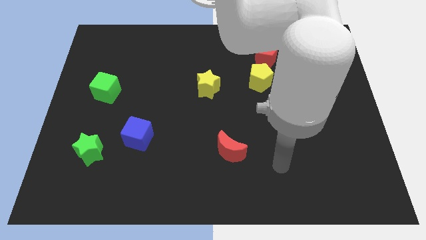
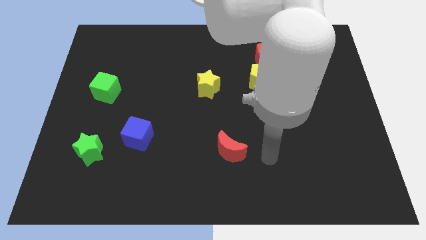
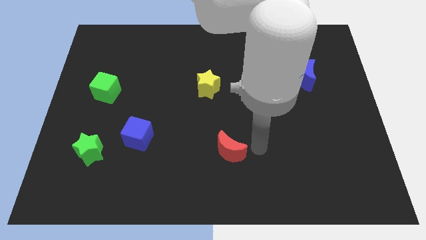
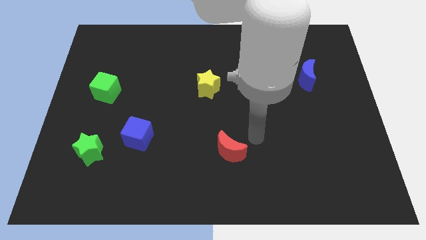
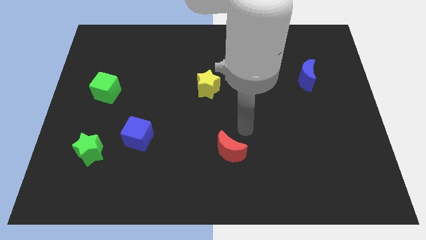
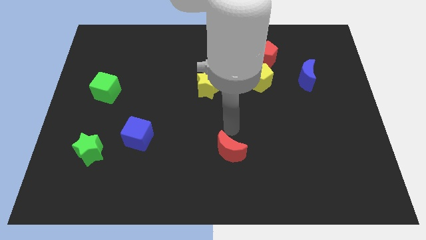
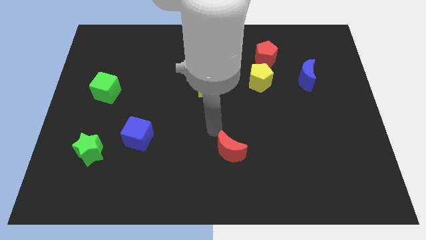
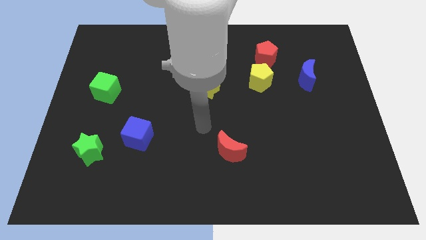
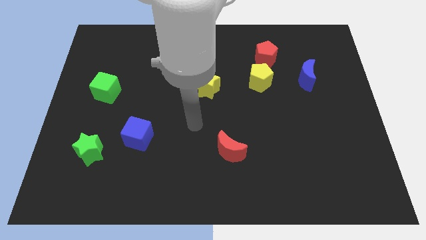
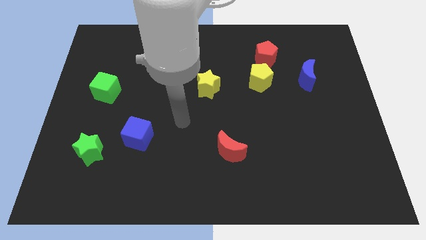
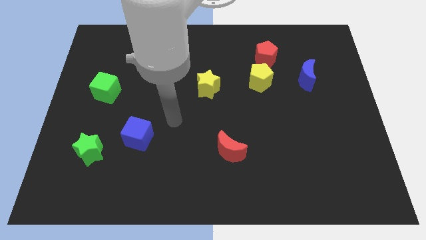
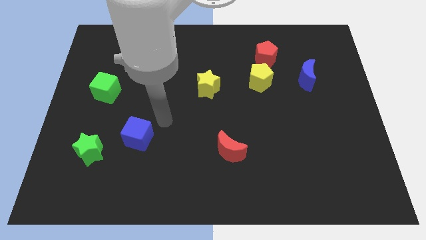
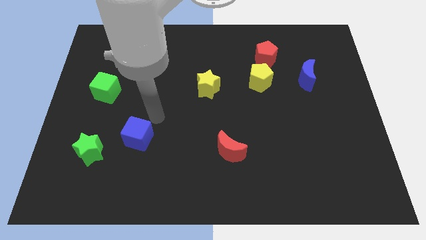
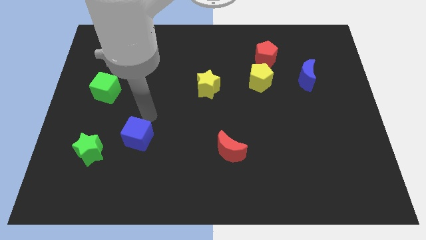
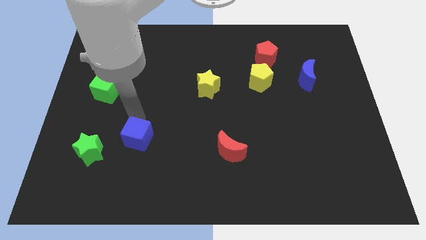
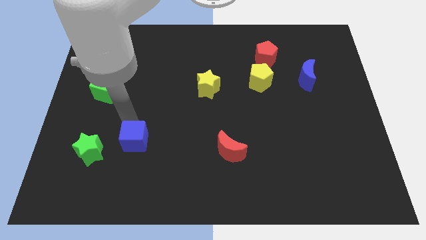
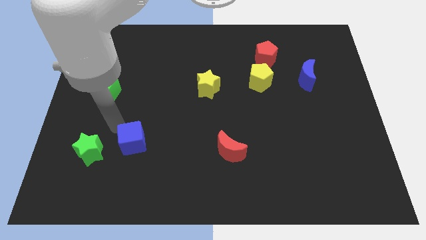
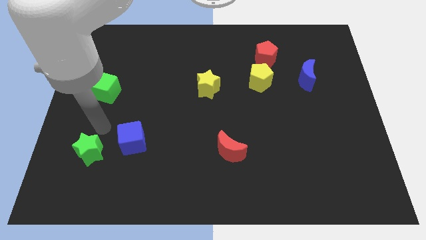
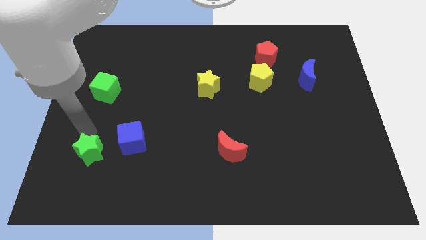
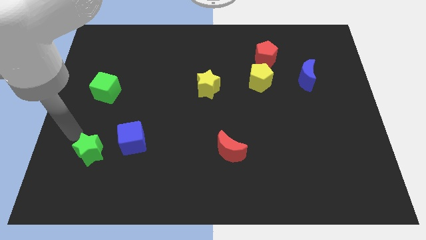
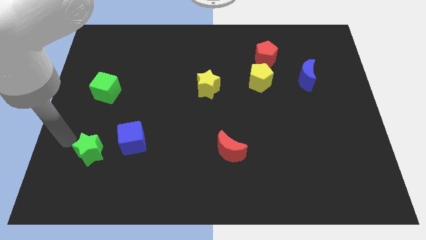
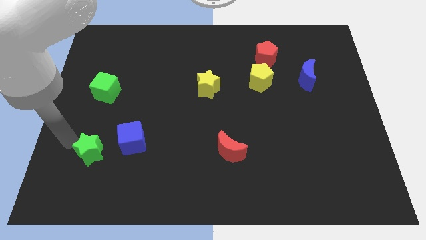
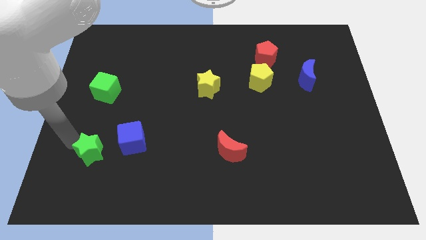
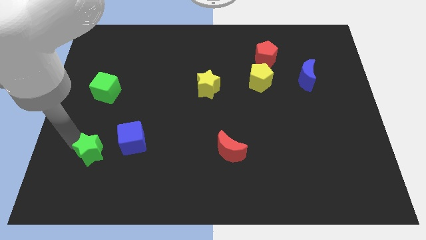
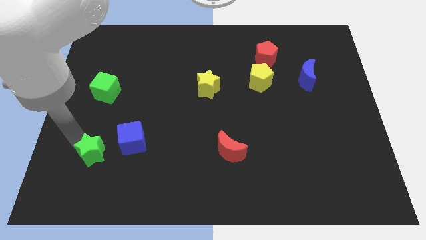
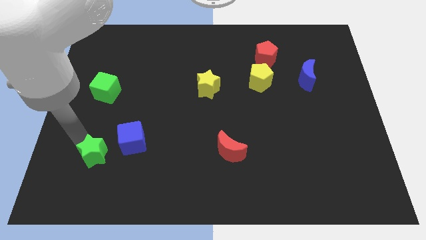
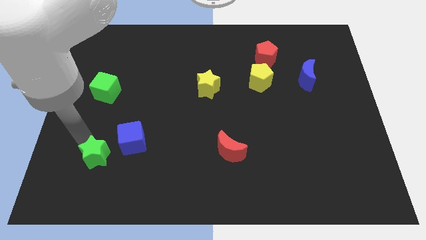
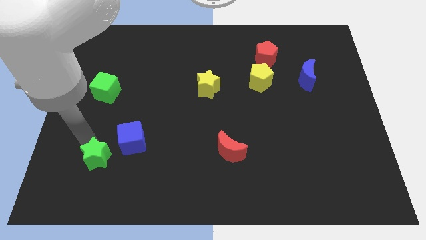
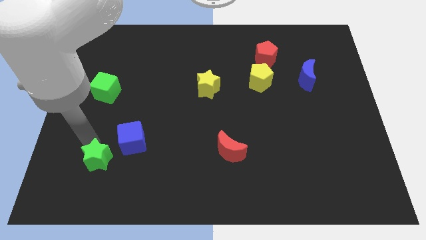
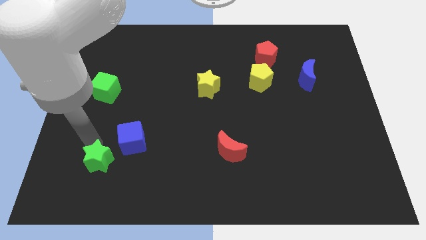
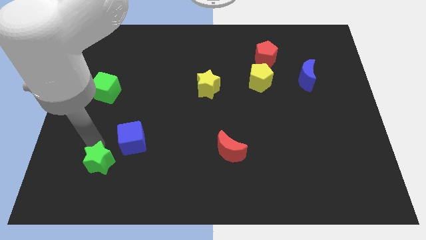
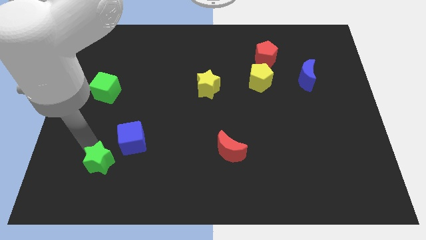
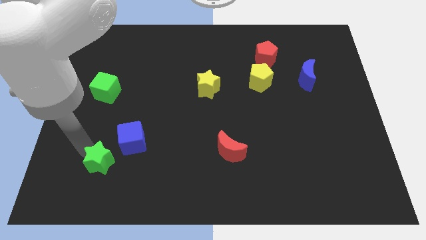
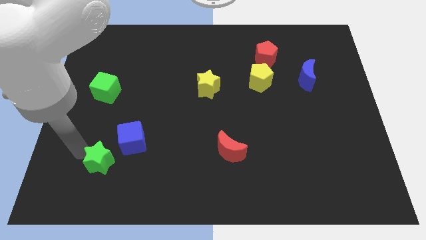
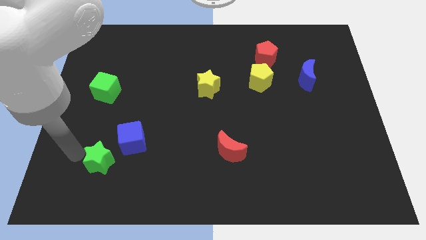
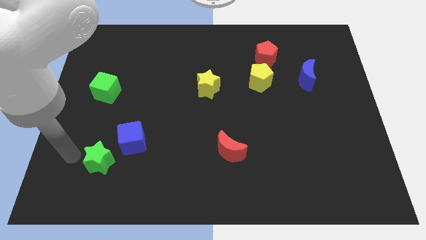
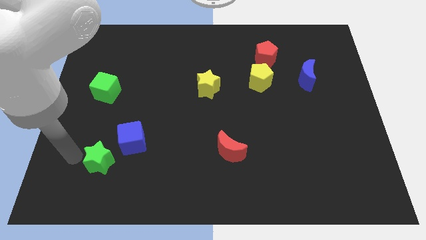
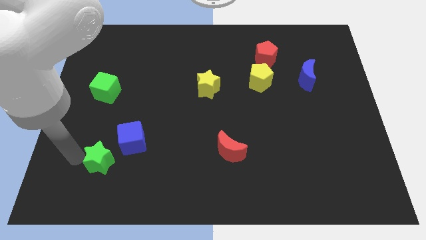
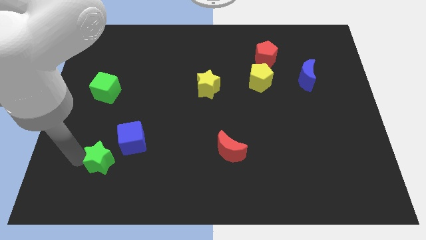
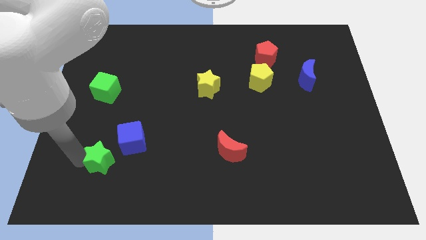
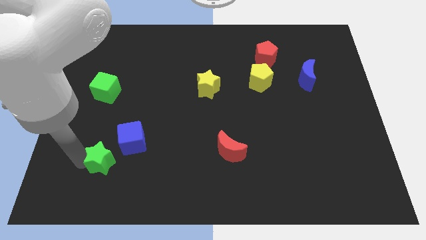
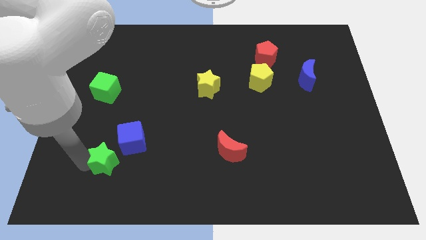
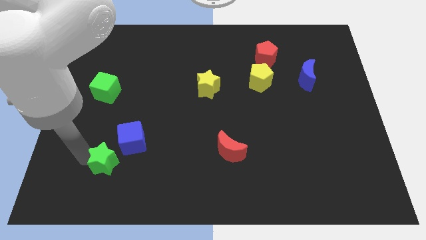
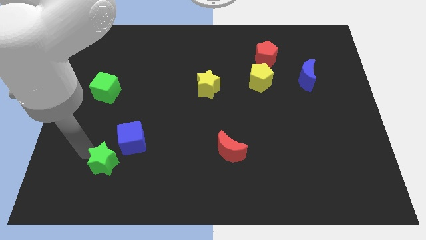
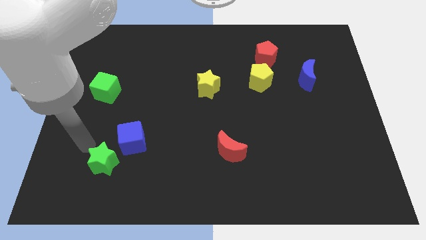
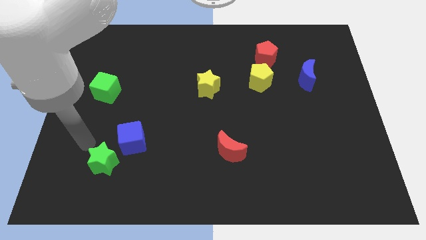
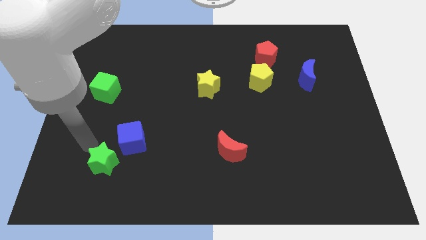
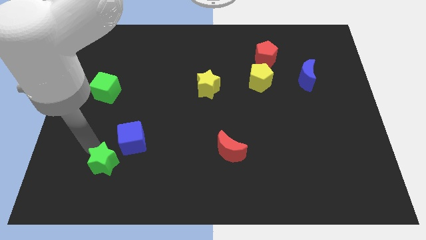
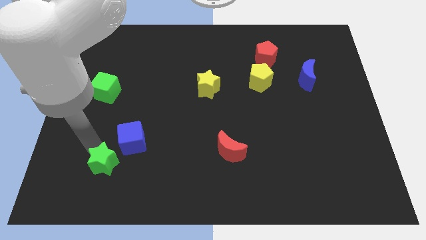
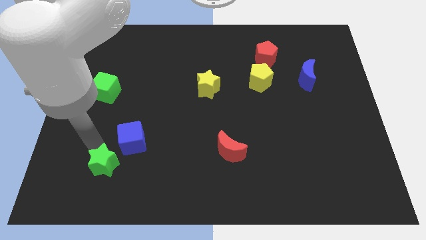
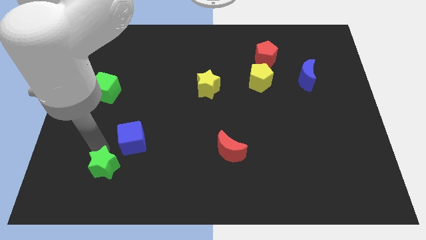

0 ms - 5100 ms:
put the green star below the blue cube

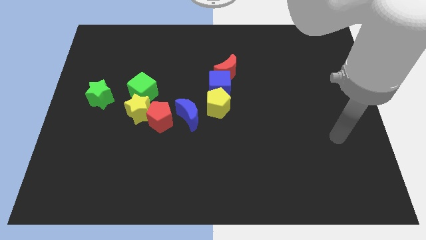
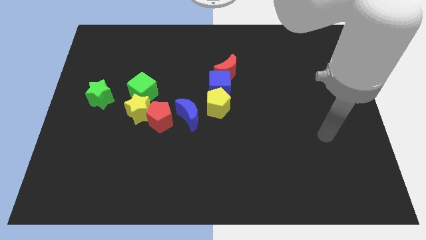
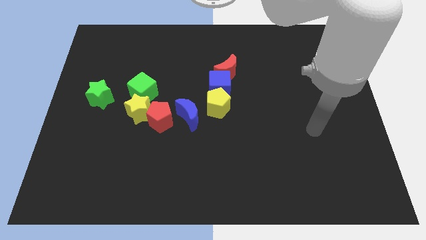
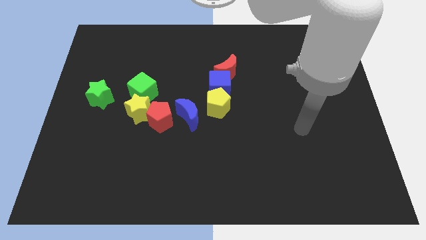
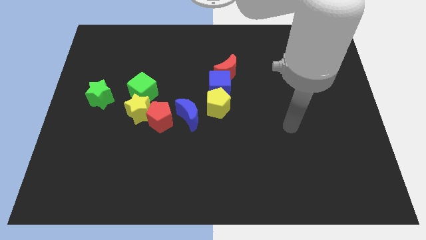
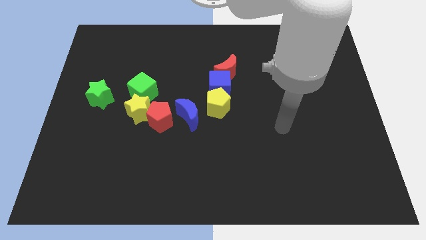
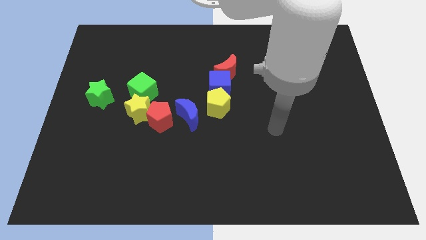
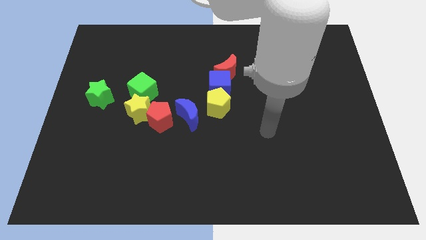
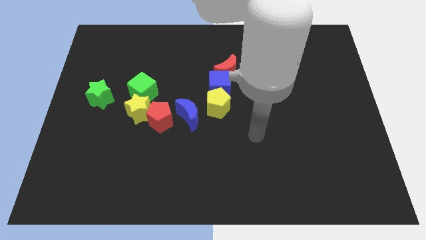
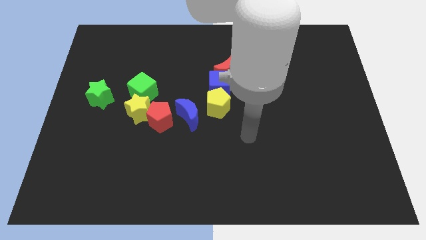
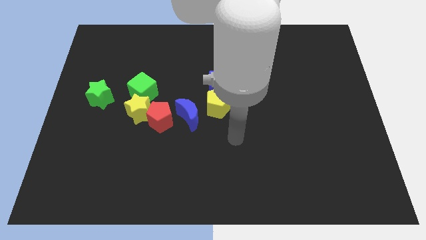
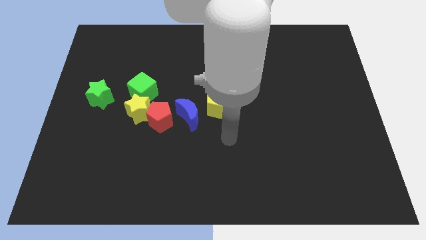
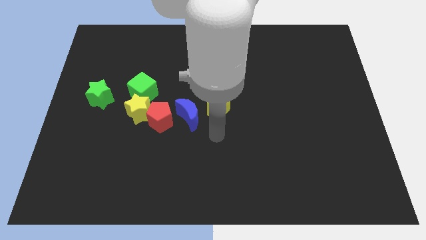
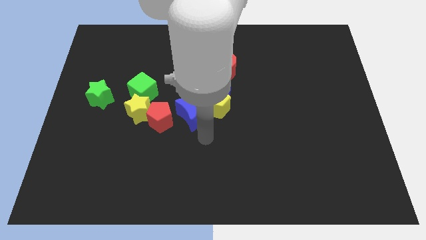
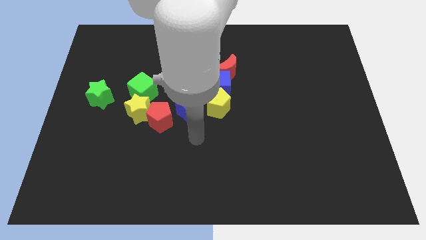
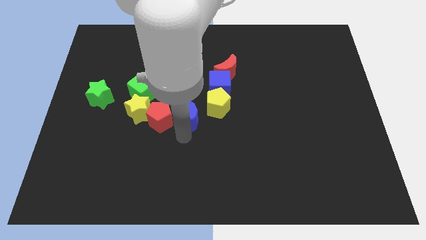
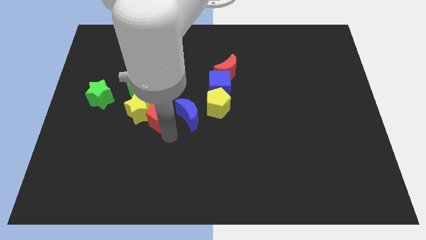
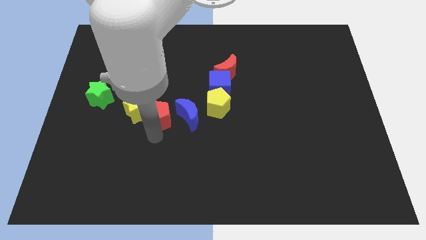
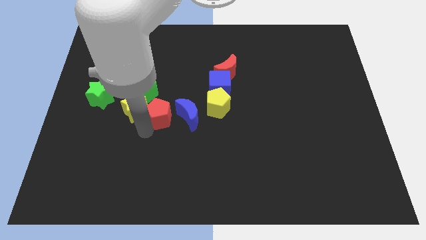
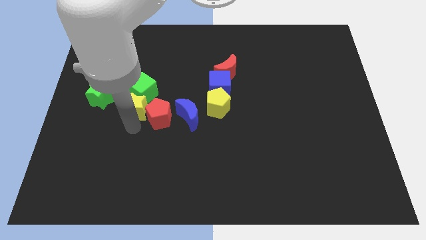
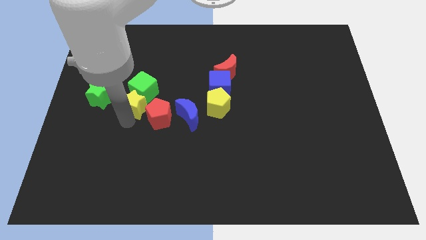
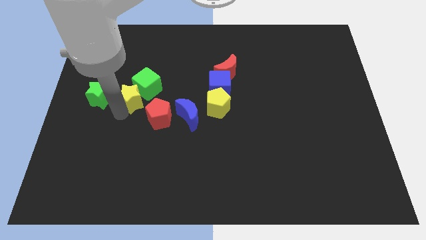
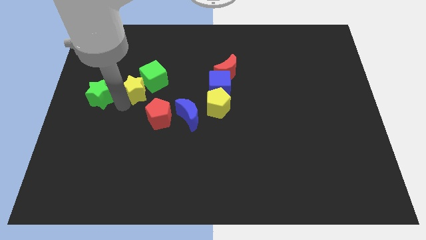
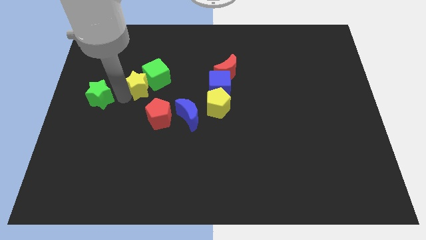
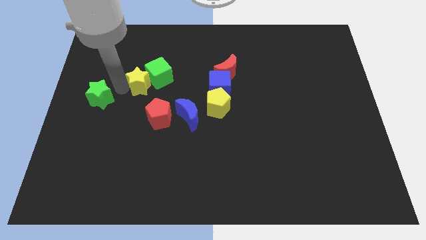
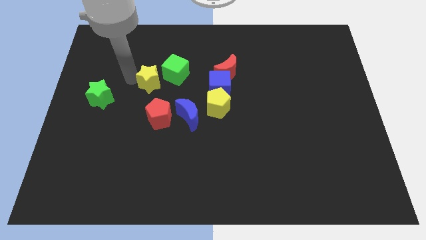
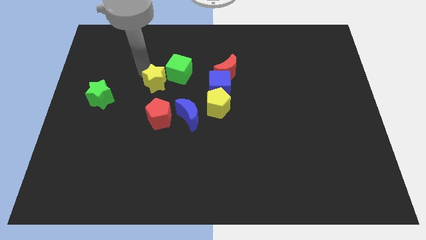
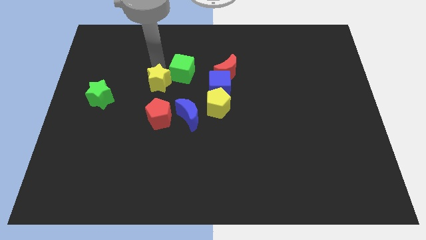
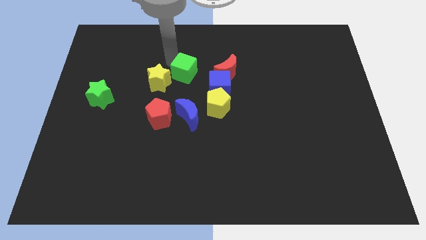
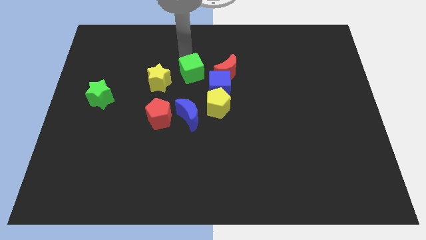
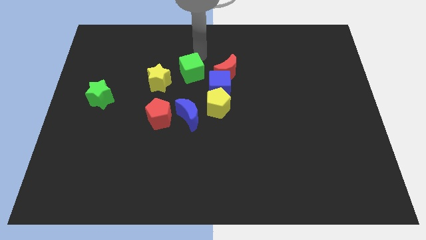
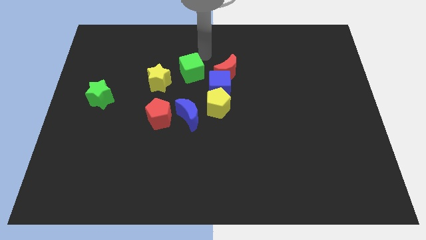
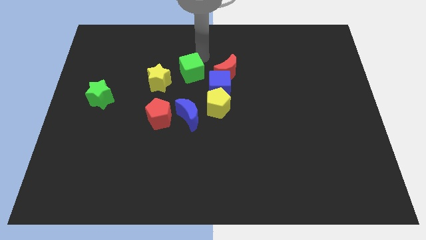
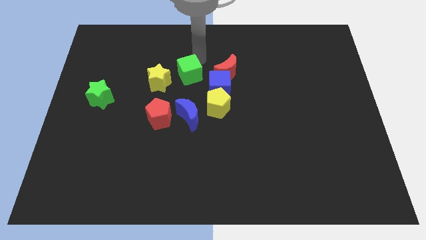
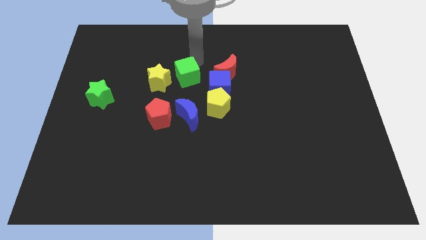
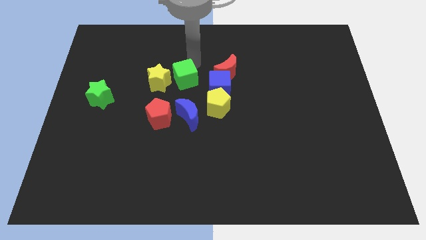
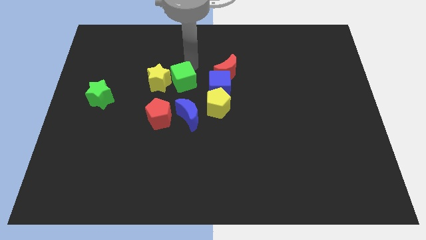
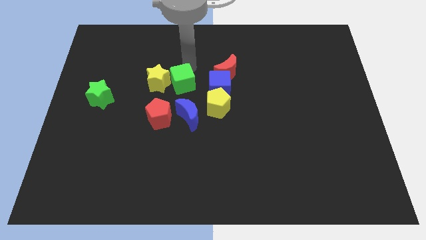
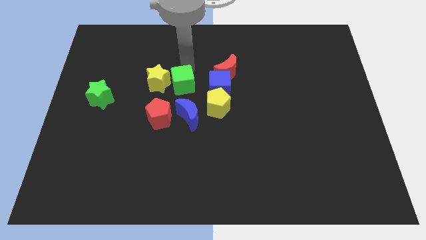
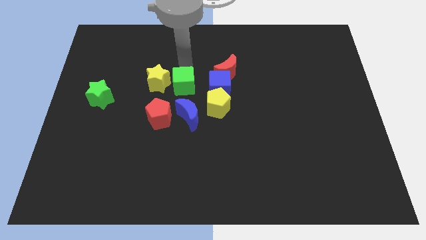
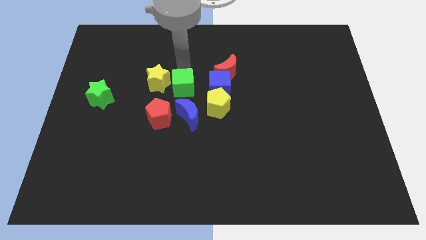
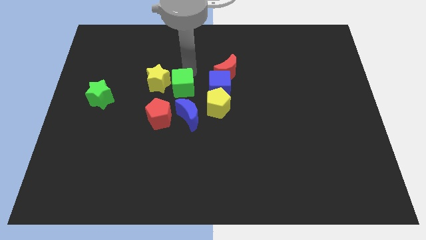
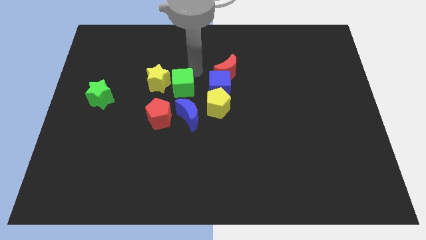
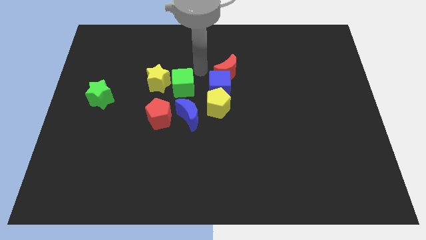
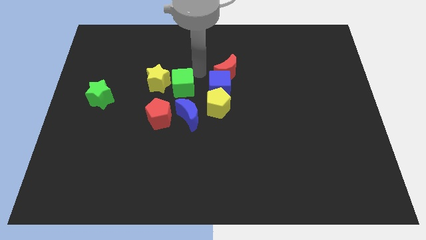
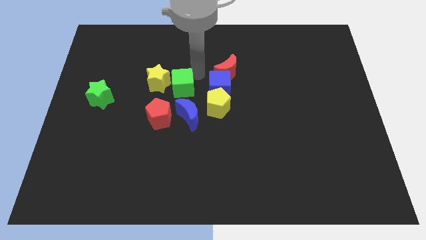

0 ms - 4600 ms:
slide the green cube to the top left of the blue moon
